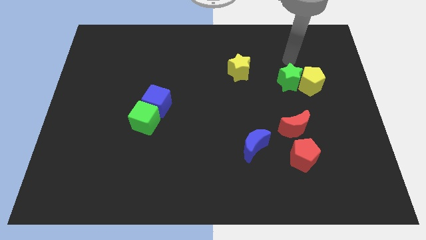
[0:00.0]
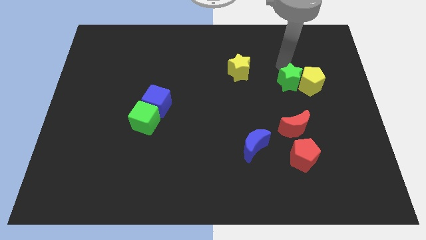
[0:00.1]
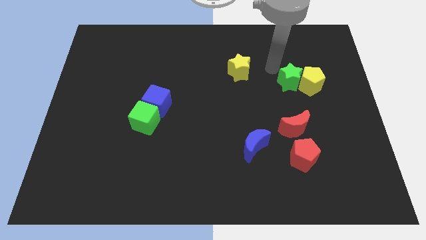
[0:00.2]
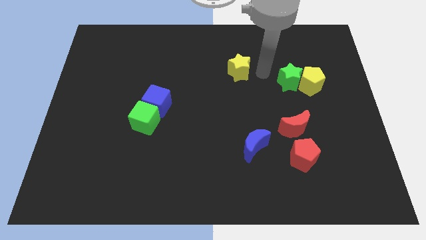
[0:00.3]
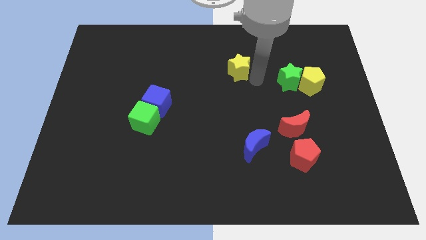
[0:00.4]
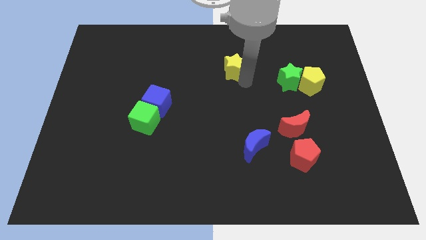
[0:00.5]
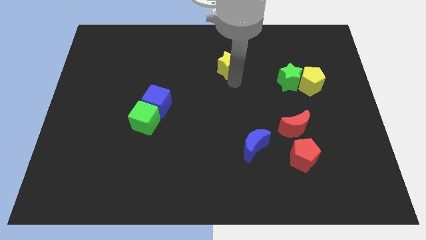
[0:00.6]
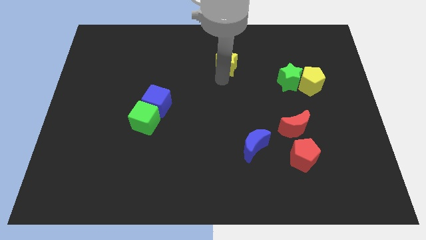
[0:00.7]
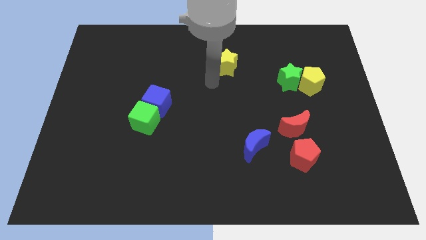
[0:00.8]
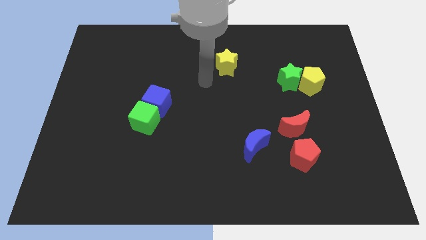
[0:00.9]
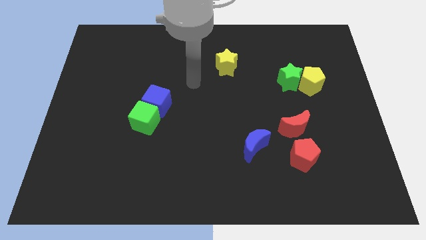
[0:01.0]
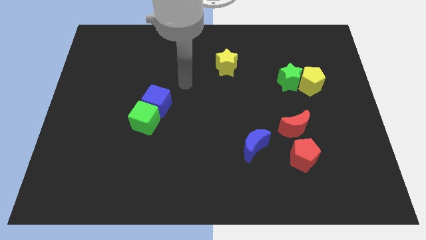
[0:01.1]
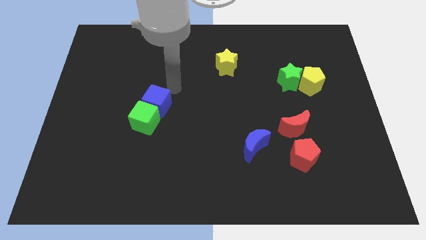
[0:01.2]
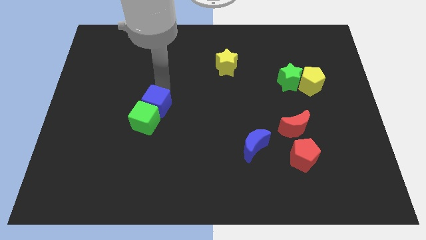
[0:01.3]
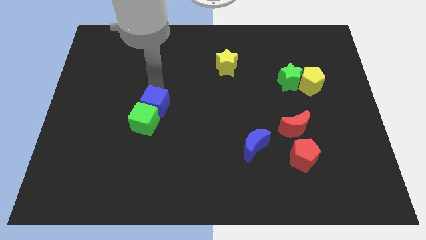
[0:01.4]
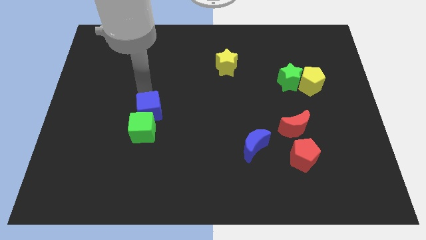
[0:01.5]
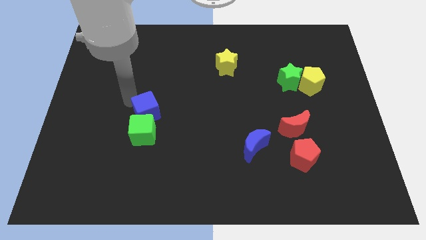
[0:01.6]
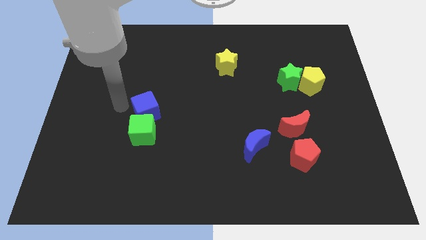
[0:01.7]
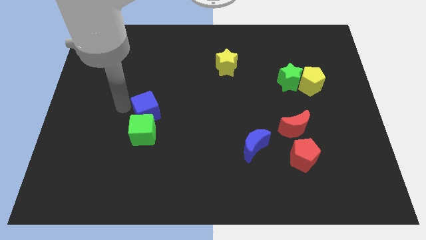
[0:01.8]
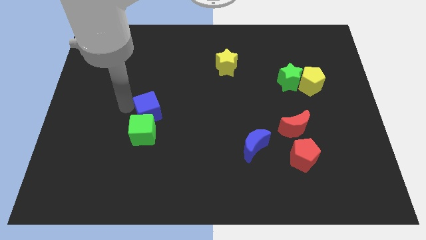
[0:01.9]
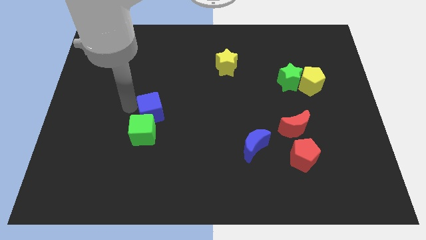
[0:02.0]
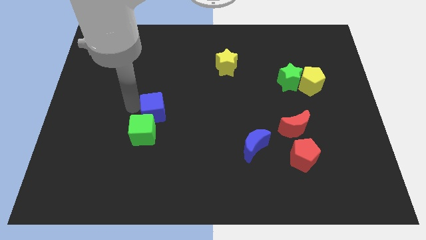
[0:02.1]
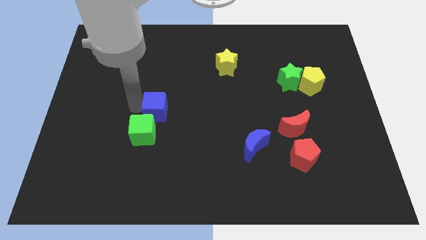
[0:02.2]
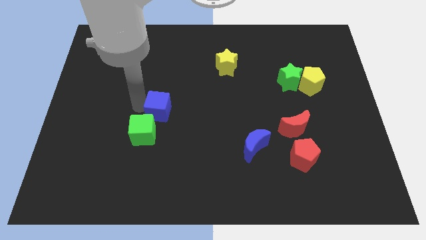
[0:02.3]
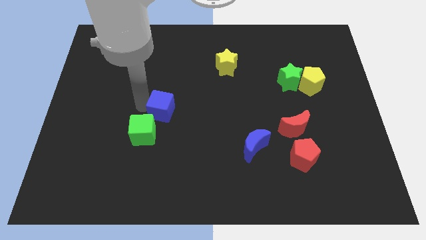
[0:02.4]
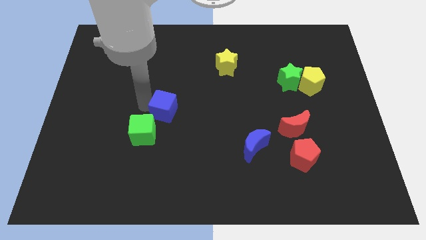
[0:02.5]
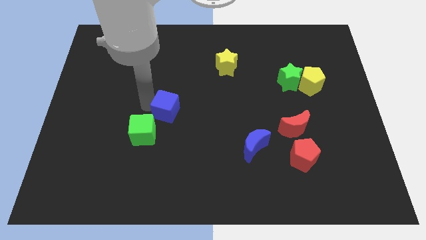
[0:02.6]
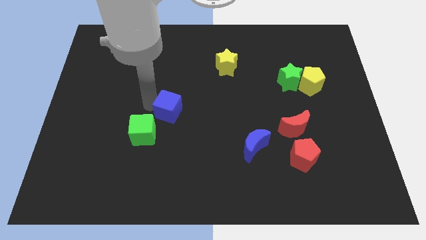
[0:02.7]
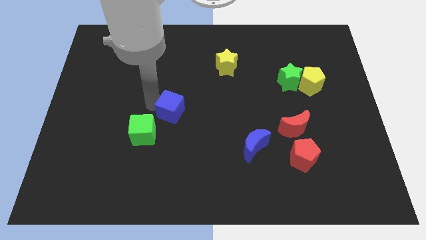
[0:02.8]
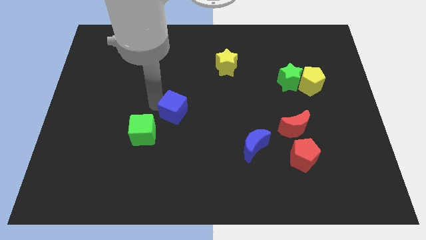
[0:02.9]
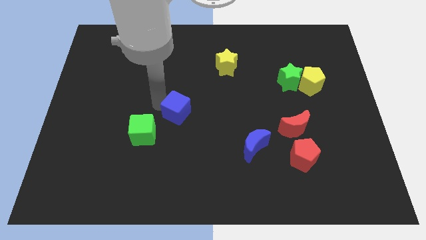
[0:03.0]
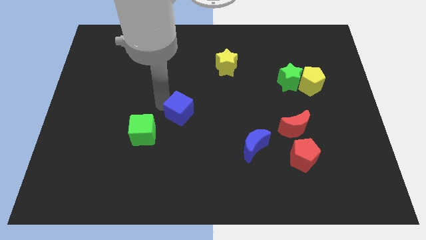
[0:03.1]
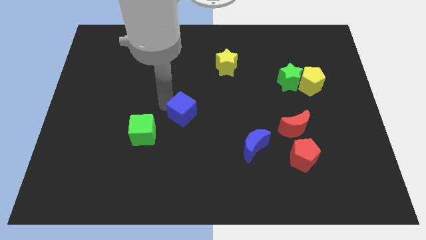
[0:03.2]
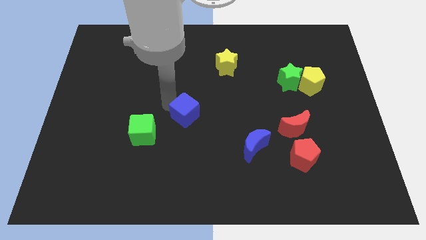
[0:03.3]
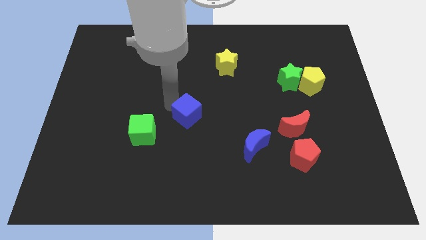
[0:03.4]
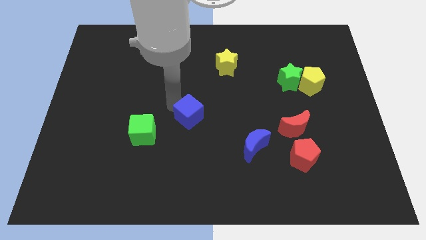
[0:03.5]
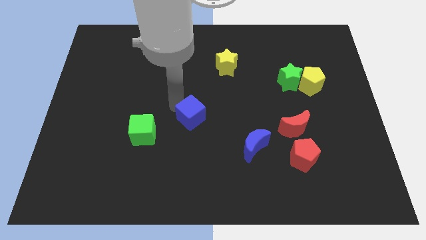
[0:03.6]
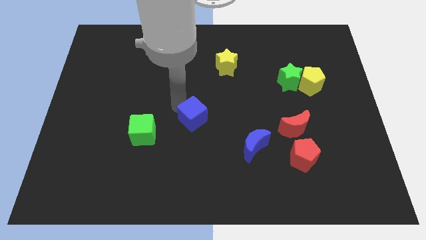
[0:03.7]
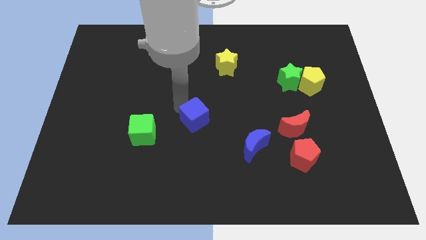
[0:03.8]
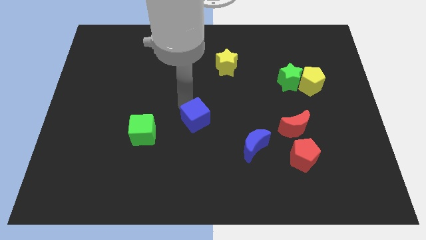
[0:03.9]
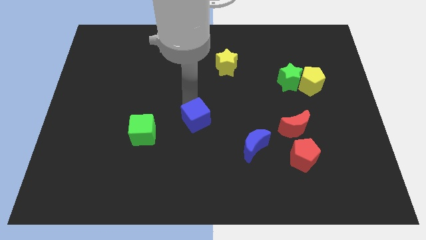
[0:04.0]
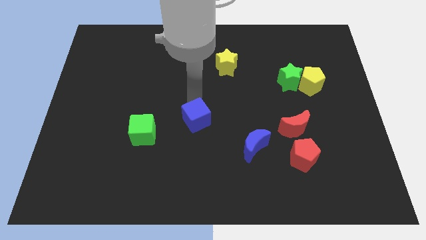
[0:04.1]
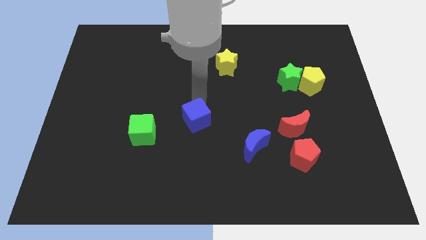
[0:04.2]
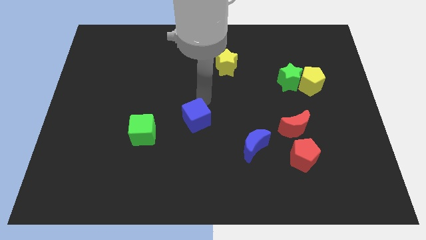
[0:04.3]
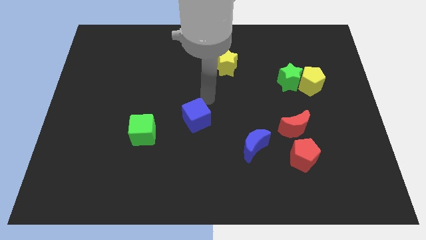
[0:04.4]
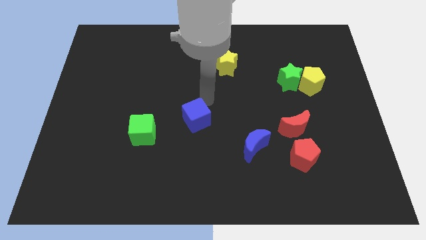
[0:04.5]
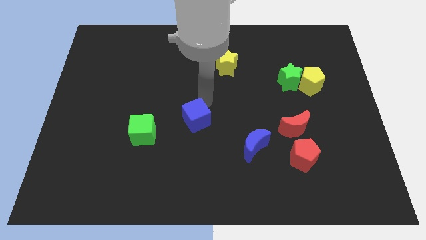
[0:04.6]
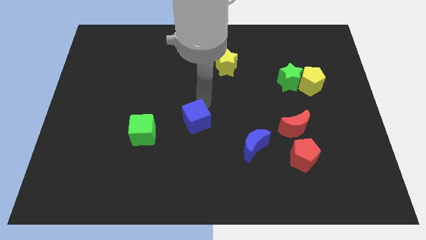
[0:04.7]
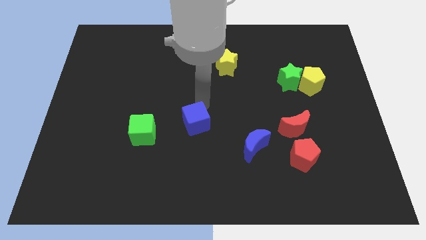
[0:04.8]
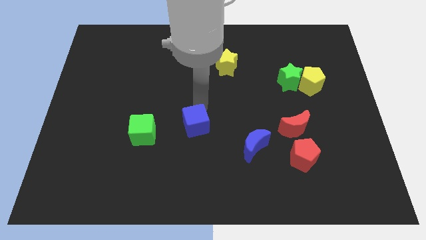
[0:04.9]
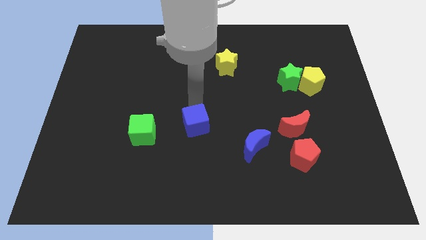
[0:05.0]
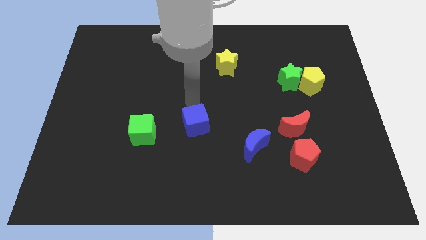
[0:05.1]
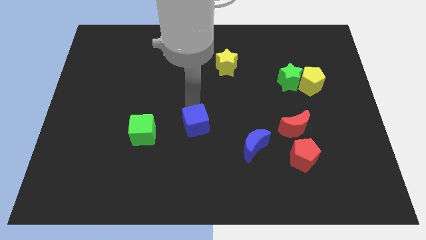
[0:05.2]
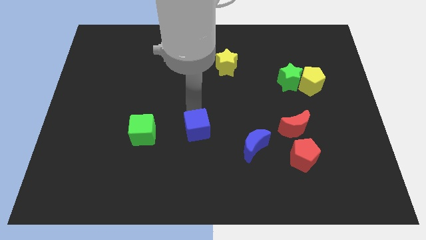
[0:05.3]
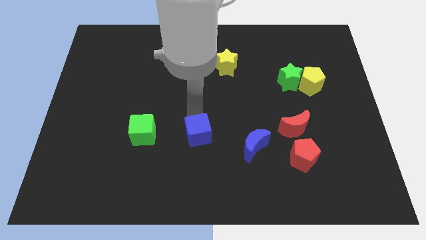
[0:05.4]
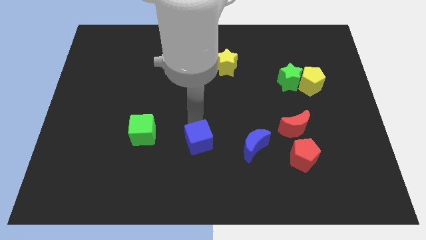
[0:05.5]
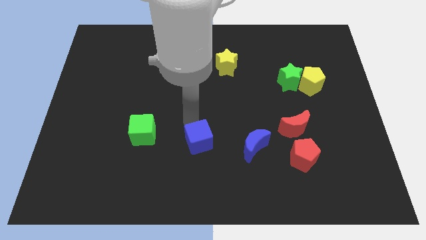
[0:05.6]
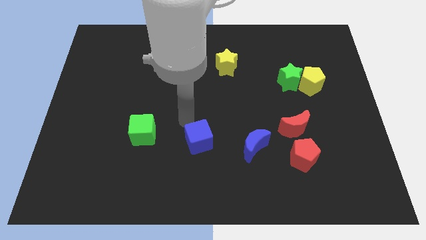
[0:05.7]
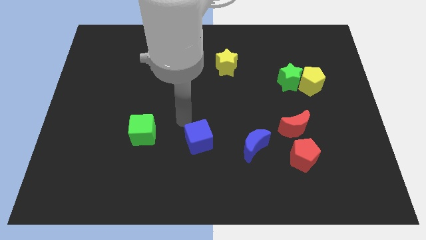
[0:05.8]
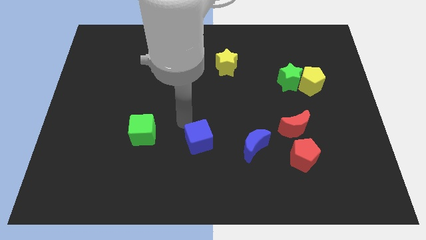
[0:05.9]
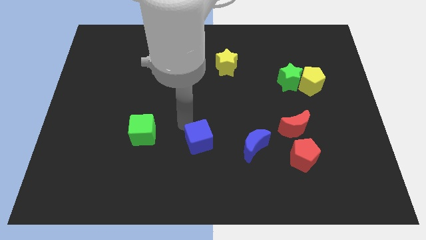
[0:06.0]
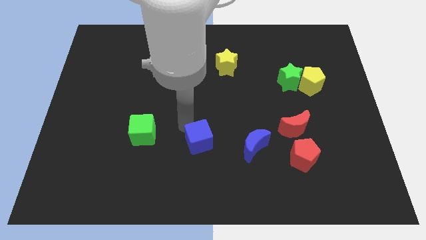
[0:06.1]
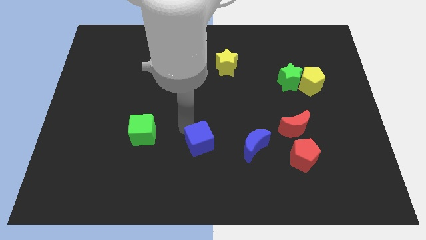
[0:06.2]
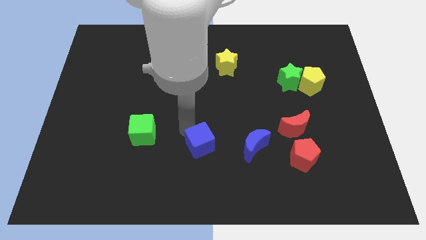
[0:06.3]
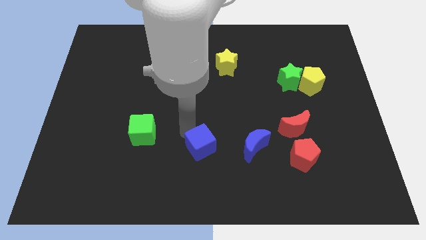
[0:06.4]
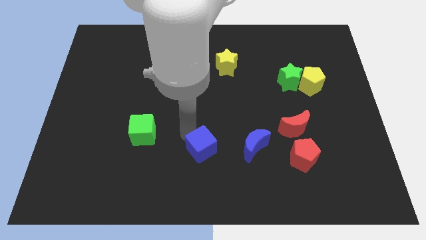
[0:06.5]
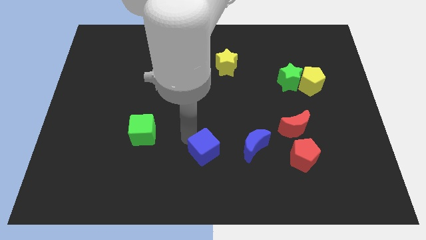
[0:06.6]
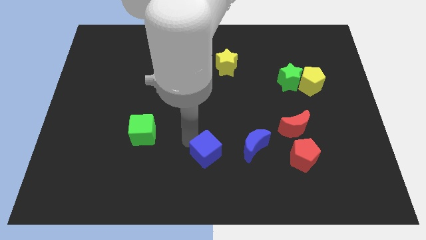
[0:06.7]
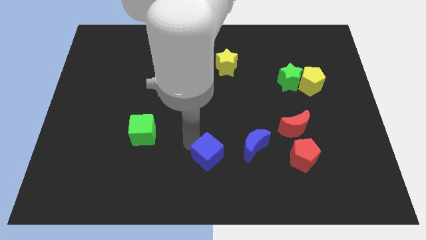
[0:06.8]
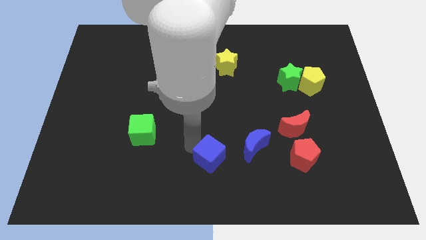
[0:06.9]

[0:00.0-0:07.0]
slide the blue cube diagonally down and to the left of the blue moon

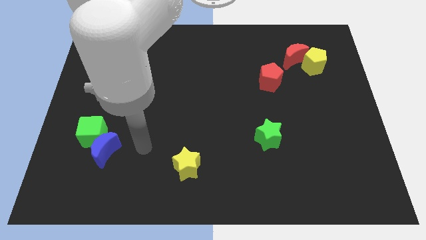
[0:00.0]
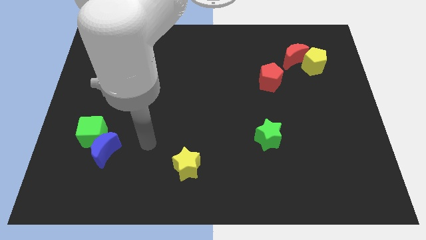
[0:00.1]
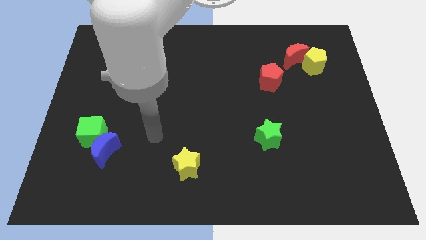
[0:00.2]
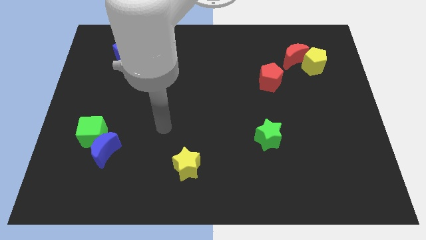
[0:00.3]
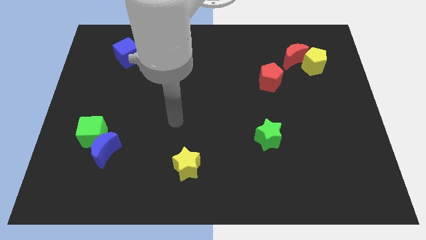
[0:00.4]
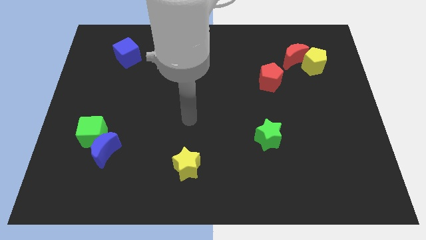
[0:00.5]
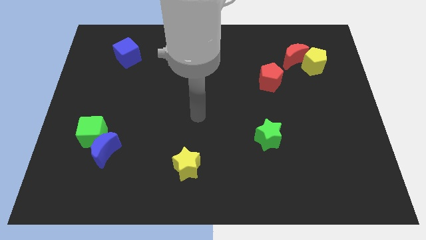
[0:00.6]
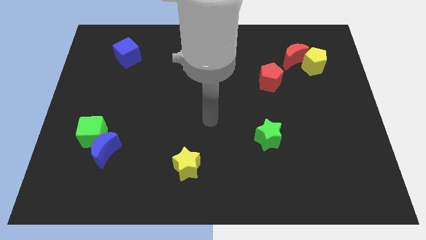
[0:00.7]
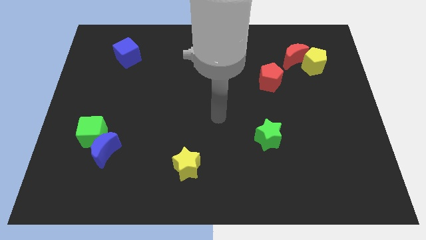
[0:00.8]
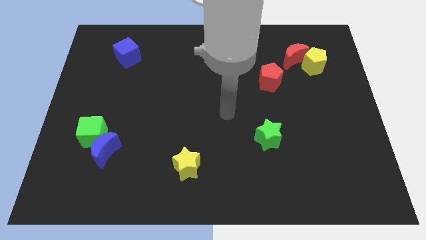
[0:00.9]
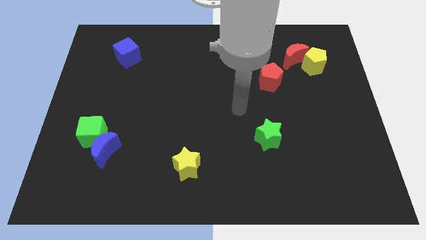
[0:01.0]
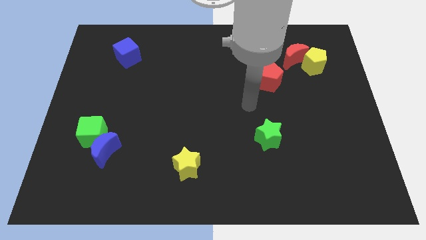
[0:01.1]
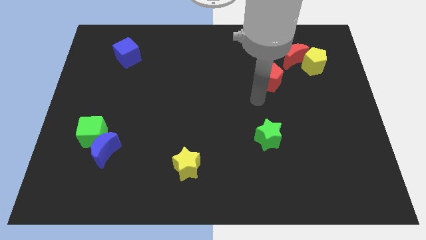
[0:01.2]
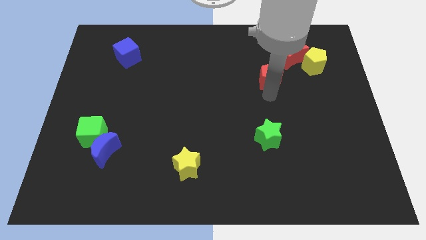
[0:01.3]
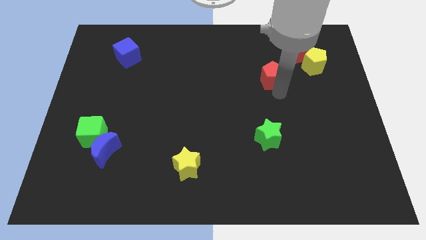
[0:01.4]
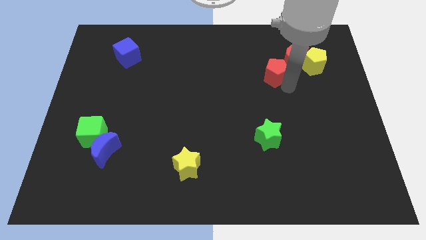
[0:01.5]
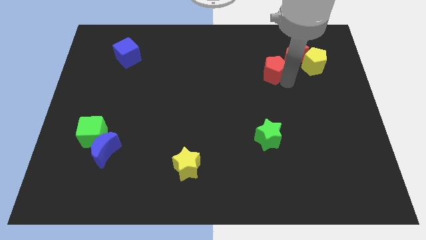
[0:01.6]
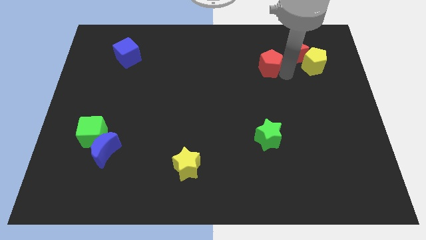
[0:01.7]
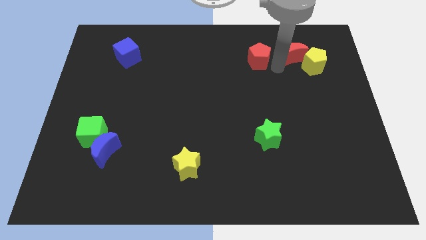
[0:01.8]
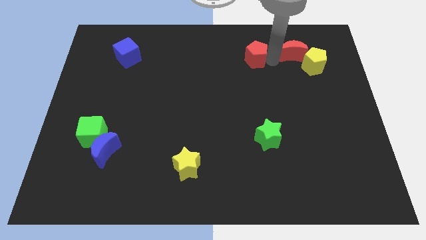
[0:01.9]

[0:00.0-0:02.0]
slide the yellow pentagon to the bottom side of the red moon
